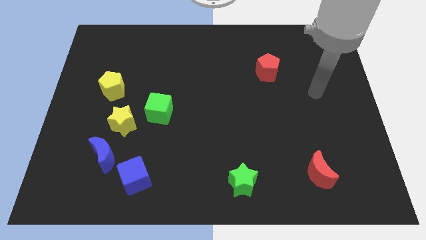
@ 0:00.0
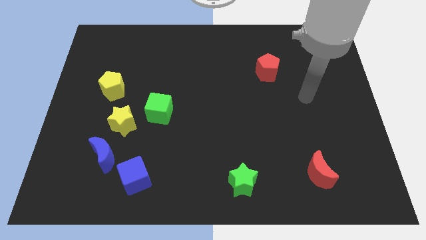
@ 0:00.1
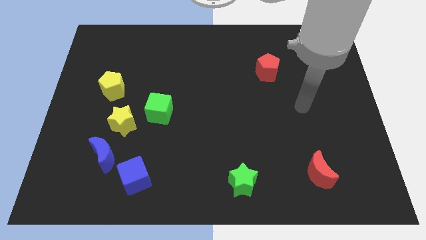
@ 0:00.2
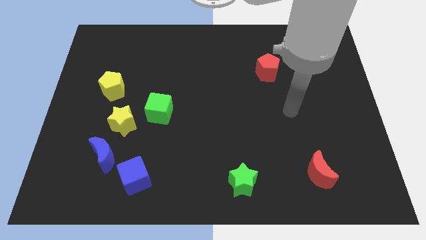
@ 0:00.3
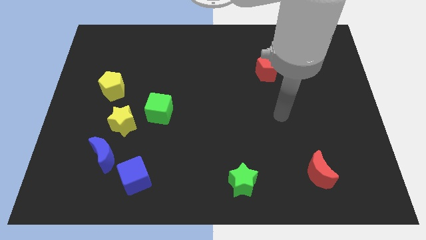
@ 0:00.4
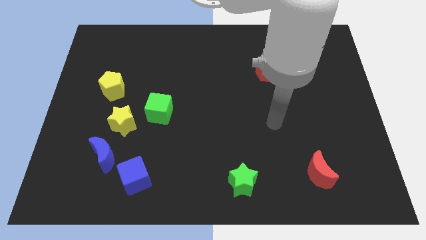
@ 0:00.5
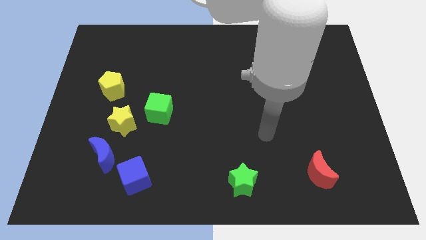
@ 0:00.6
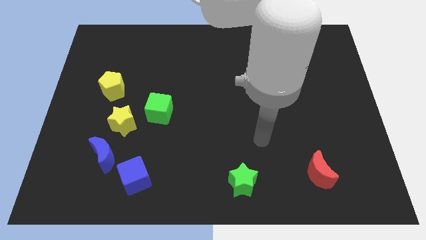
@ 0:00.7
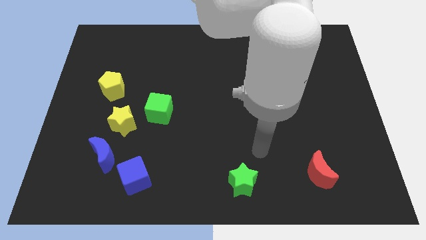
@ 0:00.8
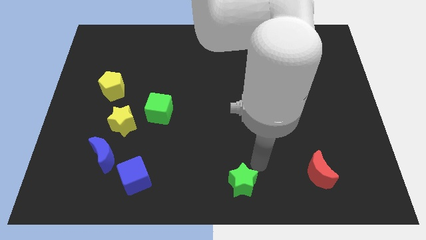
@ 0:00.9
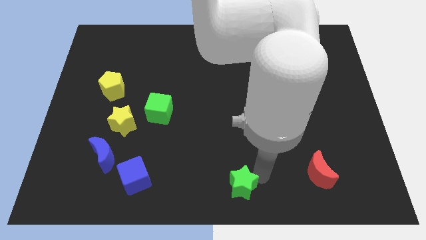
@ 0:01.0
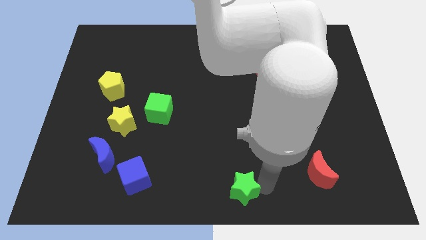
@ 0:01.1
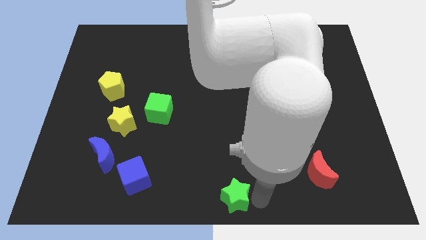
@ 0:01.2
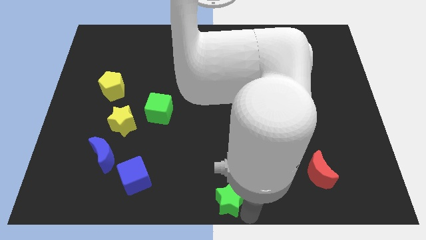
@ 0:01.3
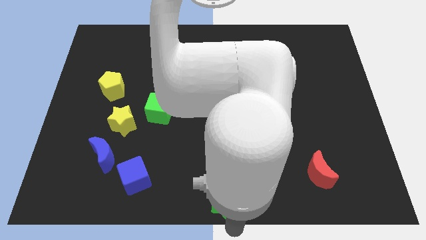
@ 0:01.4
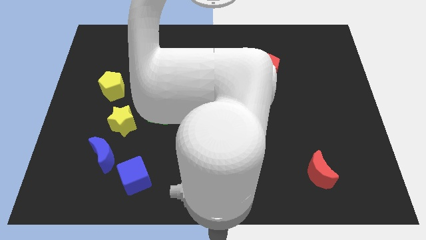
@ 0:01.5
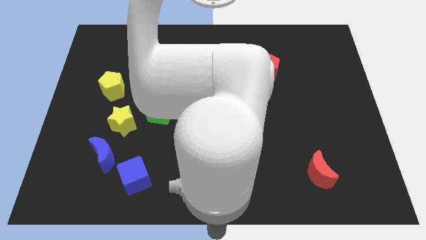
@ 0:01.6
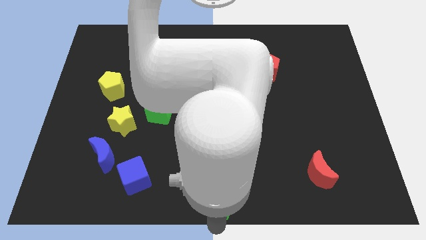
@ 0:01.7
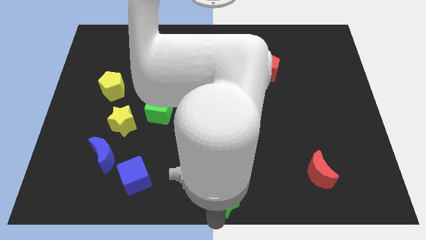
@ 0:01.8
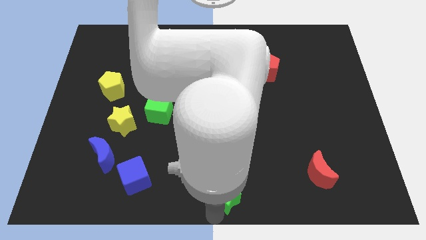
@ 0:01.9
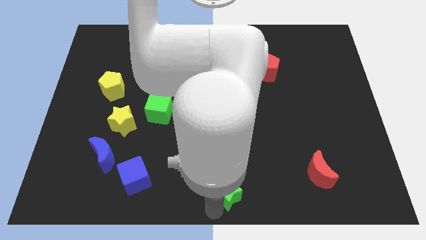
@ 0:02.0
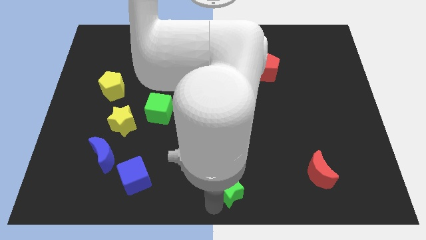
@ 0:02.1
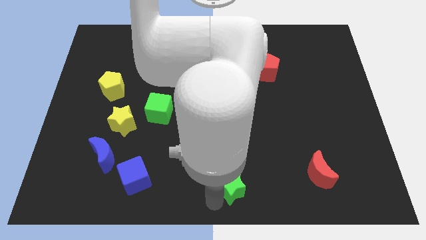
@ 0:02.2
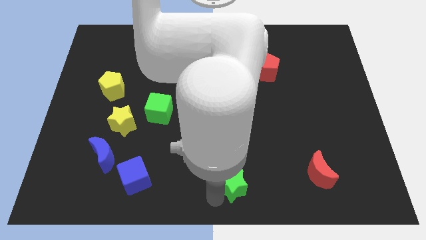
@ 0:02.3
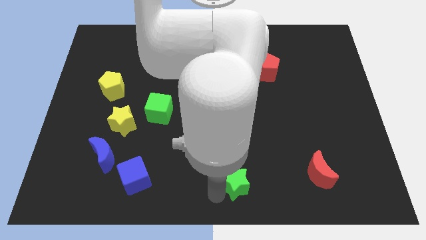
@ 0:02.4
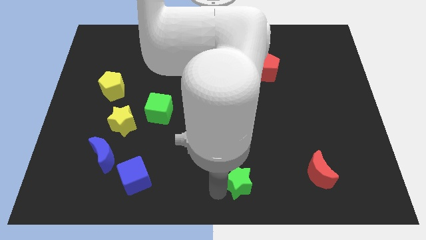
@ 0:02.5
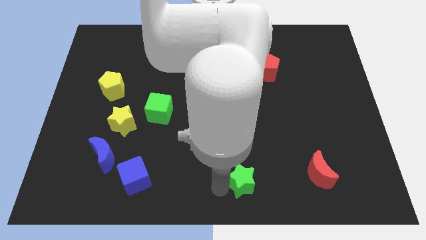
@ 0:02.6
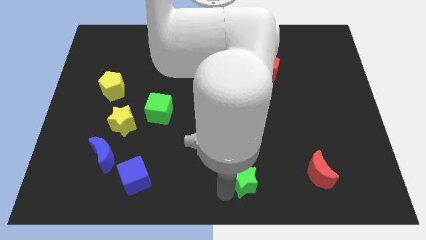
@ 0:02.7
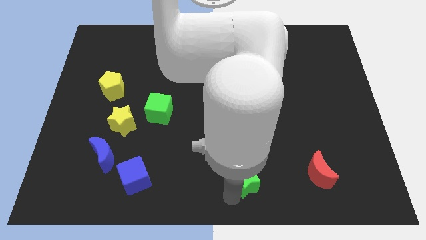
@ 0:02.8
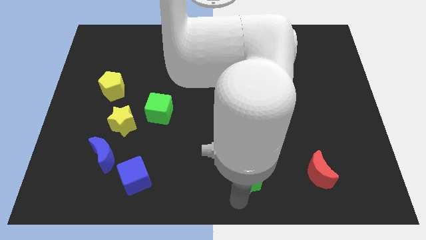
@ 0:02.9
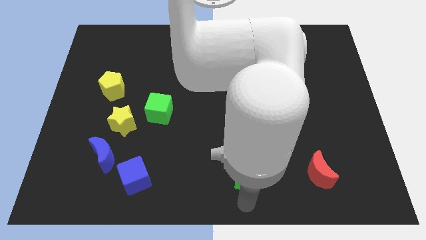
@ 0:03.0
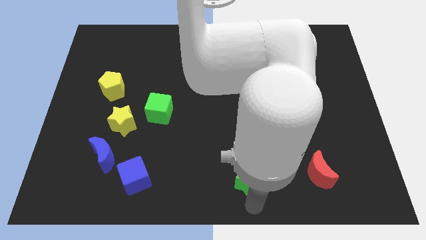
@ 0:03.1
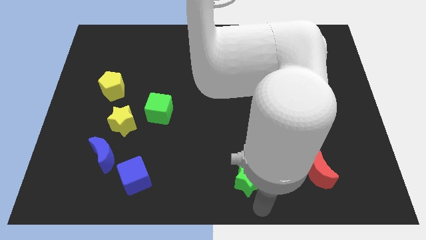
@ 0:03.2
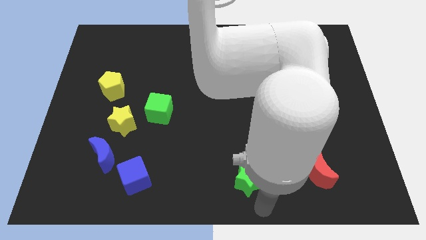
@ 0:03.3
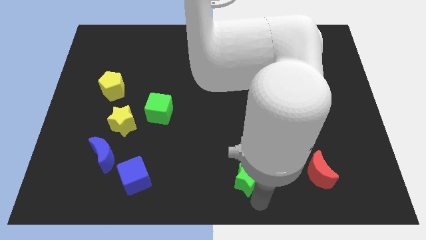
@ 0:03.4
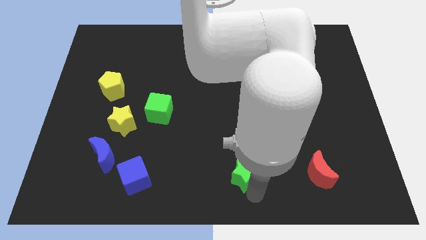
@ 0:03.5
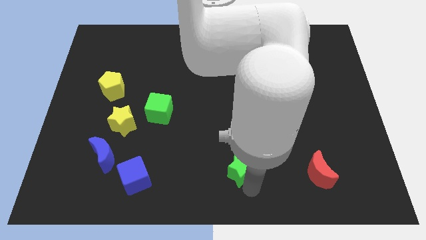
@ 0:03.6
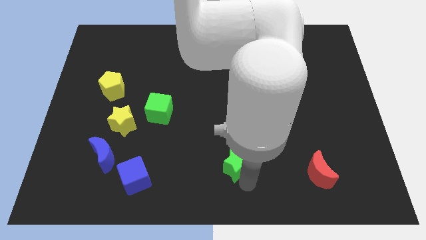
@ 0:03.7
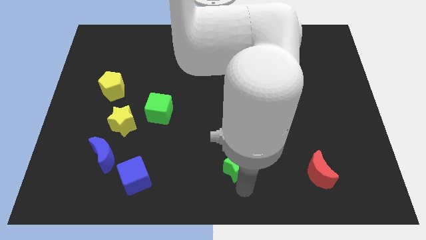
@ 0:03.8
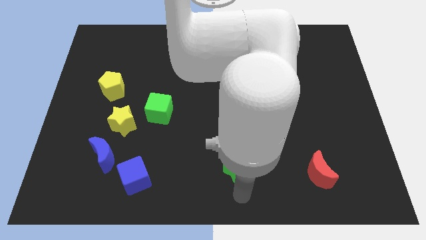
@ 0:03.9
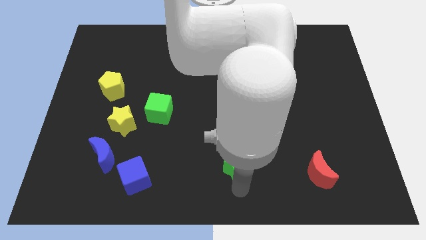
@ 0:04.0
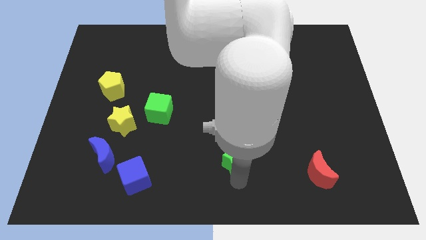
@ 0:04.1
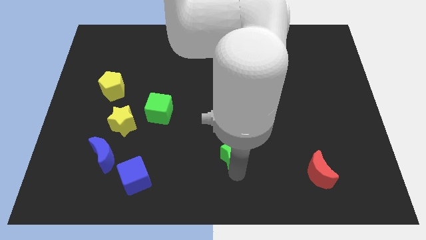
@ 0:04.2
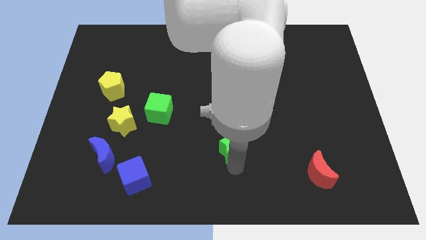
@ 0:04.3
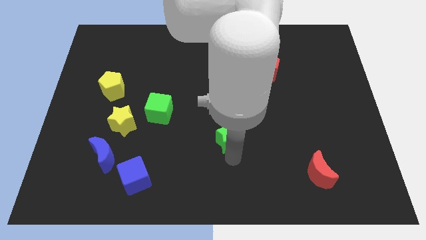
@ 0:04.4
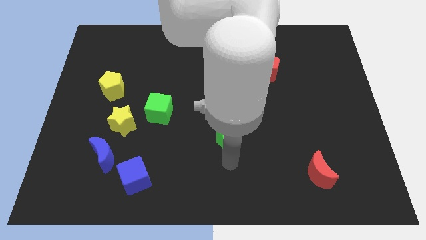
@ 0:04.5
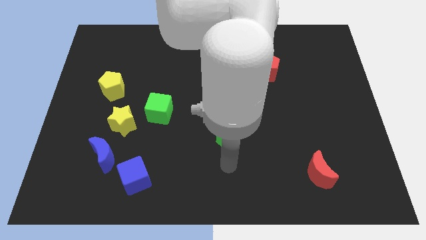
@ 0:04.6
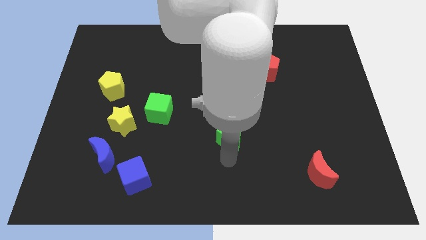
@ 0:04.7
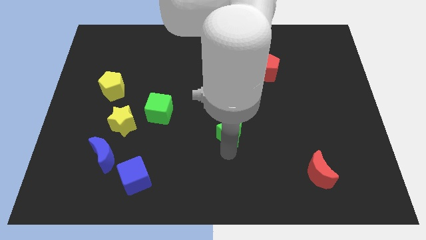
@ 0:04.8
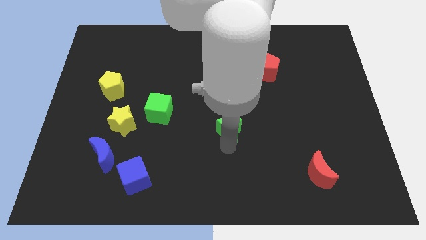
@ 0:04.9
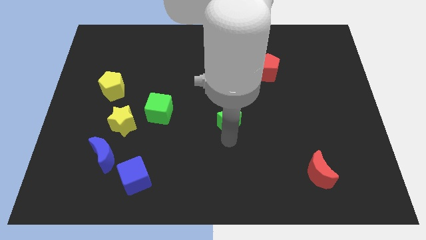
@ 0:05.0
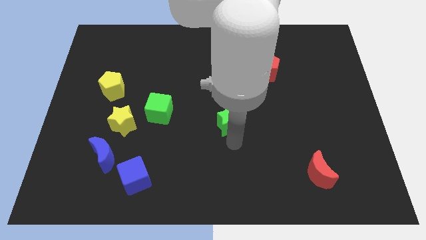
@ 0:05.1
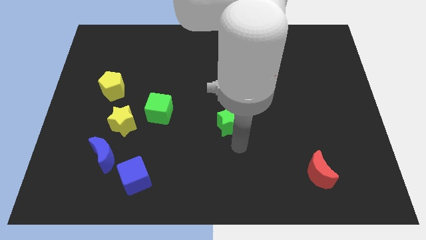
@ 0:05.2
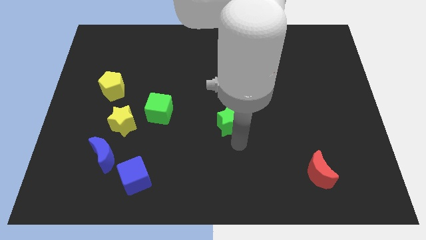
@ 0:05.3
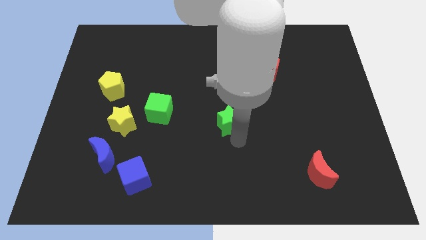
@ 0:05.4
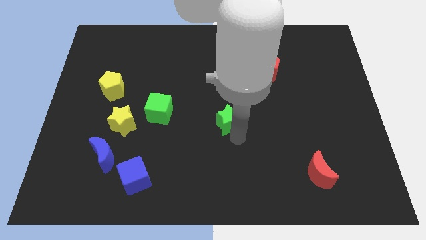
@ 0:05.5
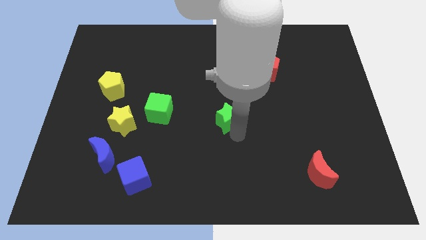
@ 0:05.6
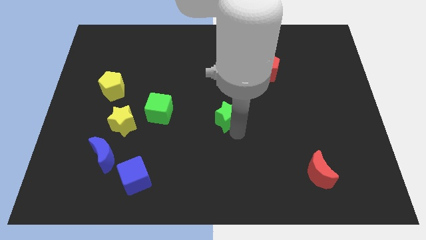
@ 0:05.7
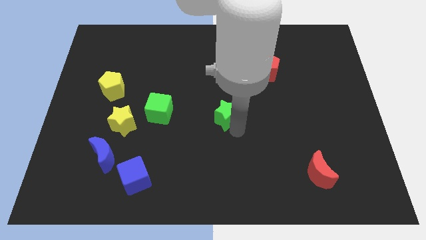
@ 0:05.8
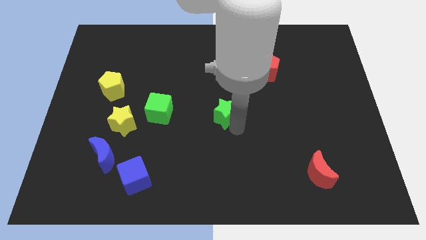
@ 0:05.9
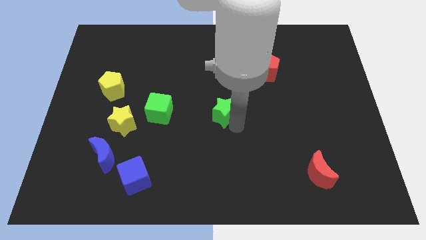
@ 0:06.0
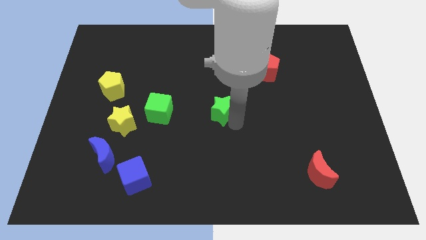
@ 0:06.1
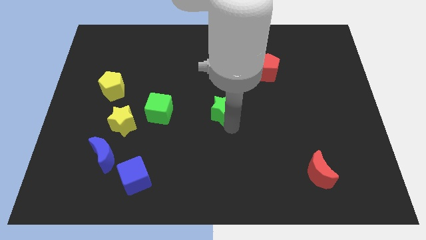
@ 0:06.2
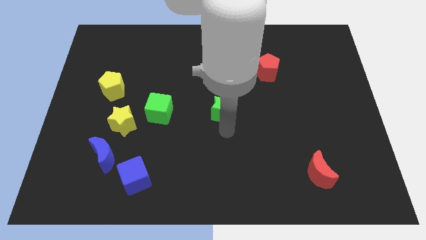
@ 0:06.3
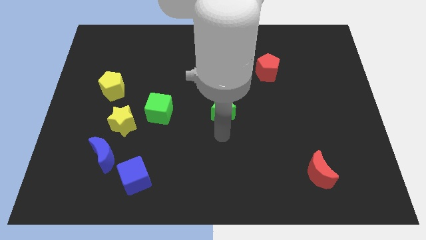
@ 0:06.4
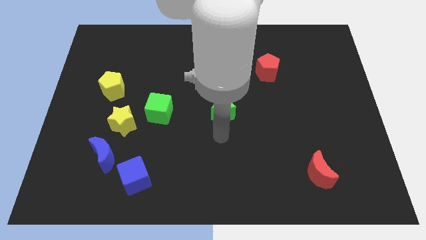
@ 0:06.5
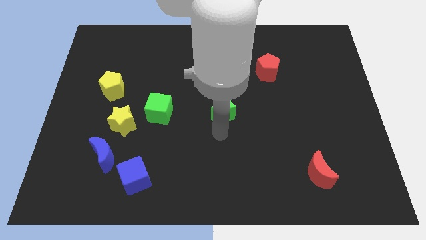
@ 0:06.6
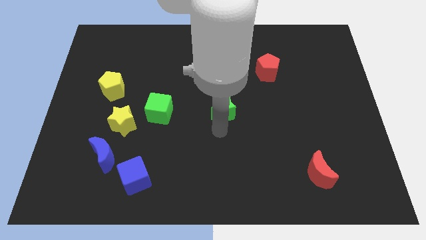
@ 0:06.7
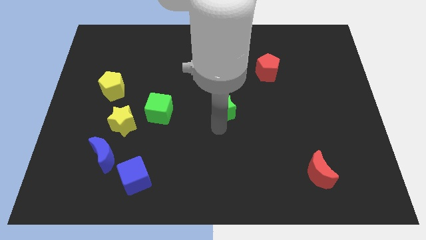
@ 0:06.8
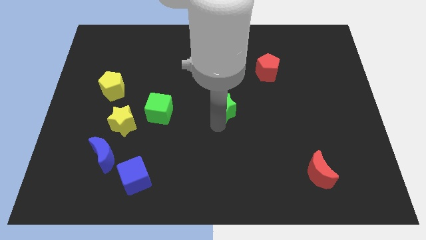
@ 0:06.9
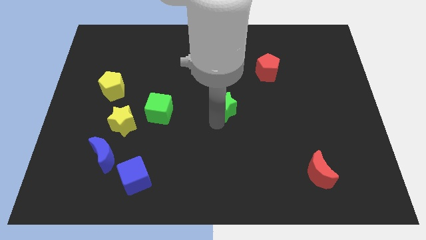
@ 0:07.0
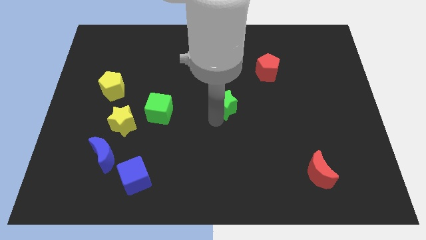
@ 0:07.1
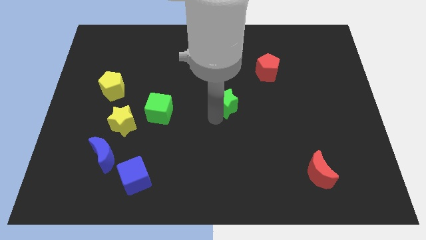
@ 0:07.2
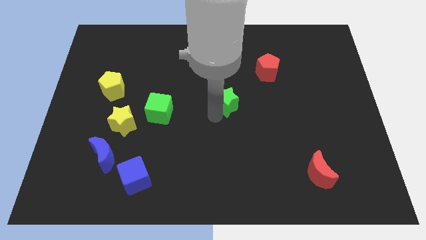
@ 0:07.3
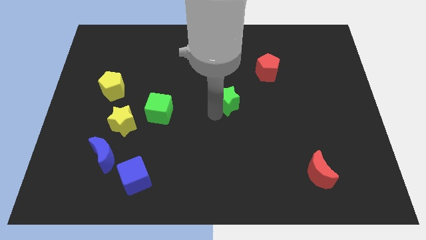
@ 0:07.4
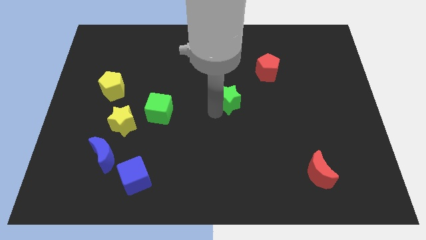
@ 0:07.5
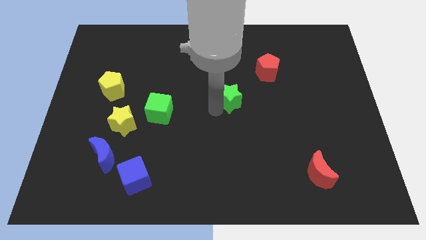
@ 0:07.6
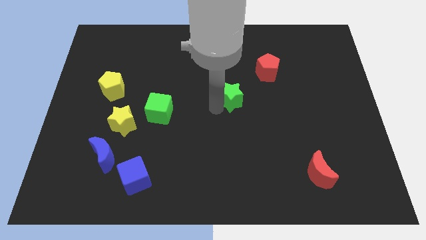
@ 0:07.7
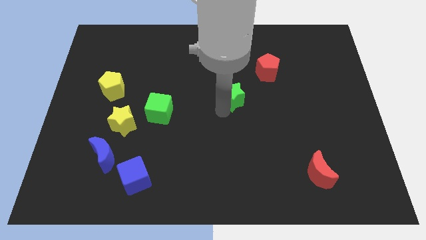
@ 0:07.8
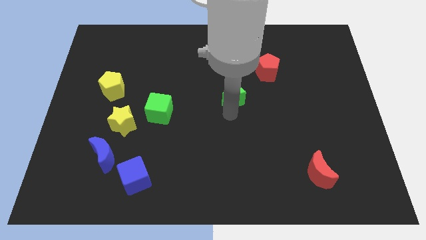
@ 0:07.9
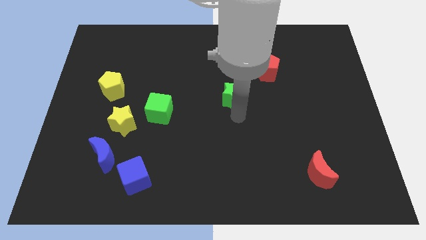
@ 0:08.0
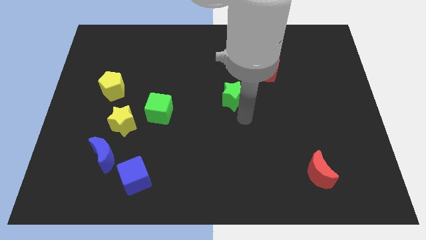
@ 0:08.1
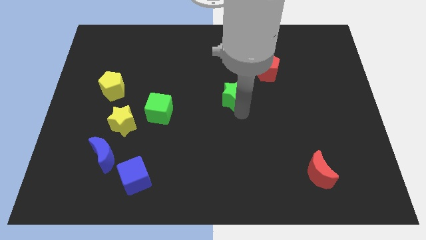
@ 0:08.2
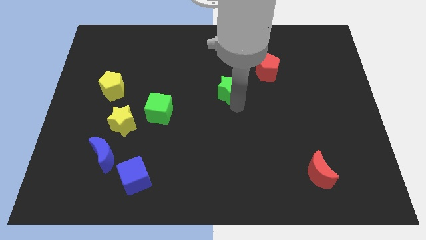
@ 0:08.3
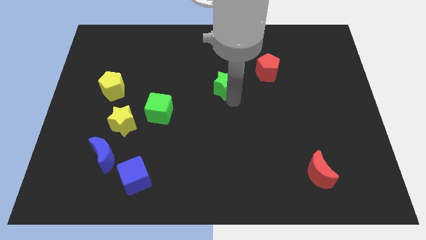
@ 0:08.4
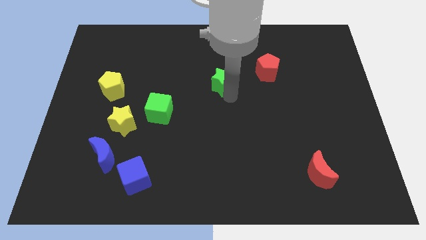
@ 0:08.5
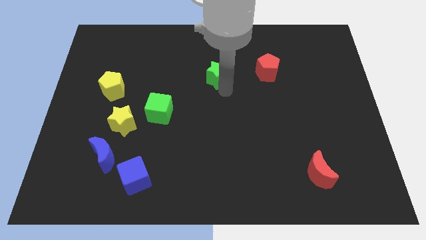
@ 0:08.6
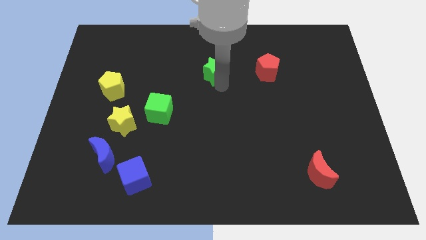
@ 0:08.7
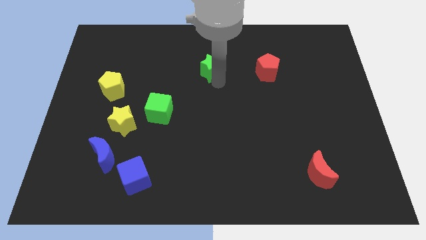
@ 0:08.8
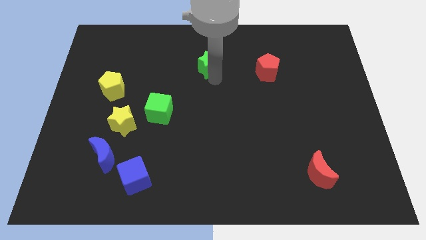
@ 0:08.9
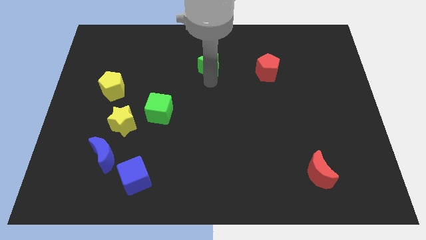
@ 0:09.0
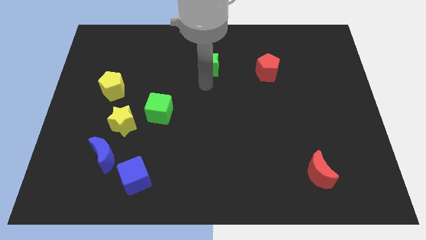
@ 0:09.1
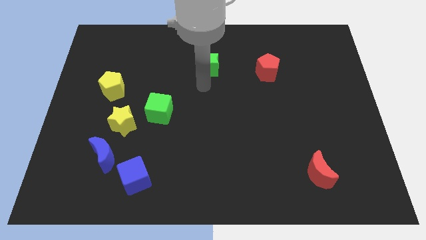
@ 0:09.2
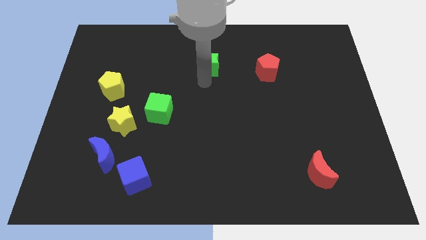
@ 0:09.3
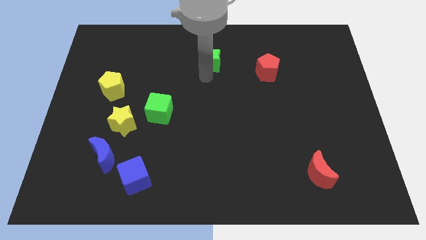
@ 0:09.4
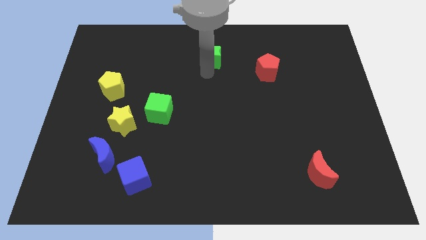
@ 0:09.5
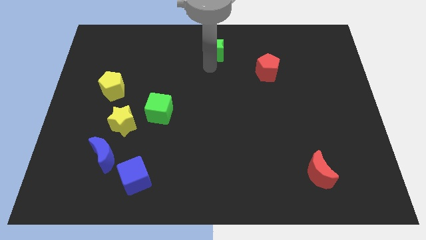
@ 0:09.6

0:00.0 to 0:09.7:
move the green star to the towards your base
